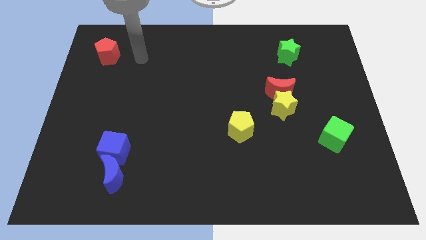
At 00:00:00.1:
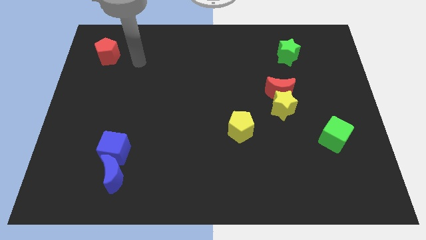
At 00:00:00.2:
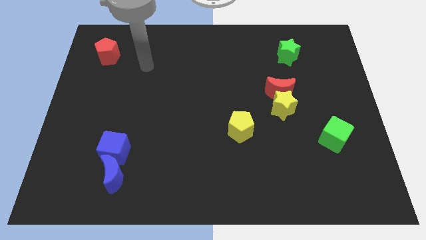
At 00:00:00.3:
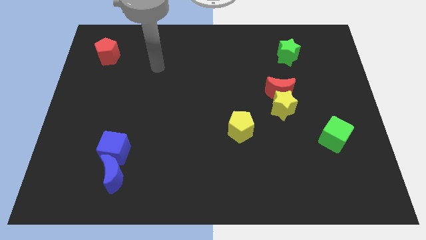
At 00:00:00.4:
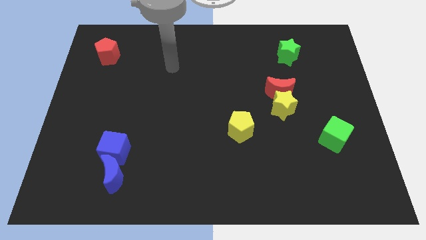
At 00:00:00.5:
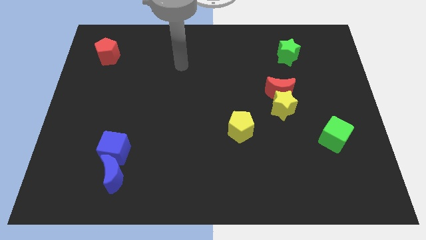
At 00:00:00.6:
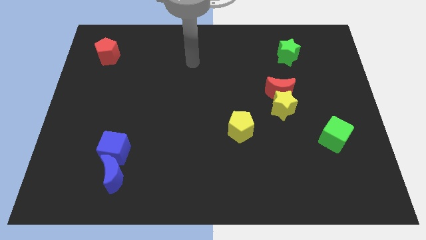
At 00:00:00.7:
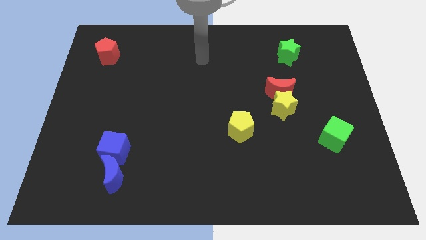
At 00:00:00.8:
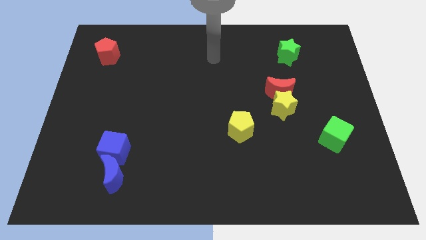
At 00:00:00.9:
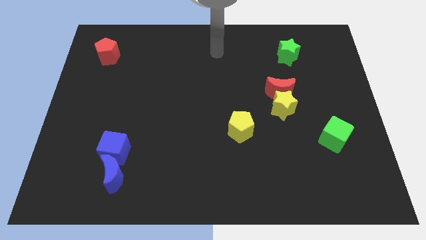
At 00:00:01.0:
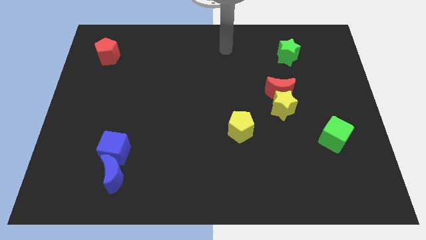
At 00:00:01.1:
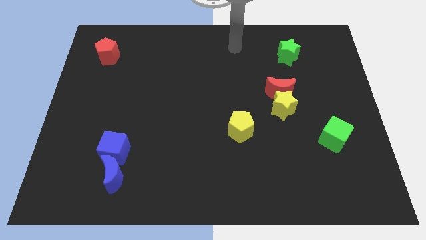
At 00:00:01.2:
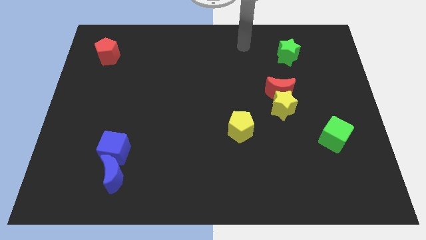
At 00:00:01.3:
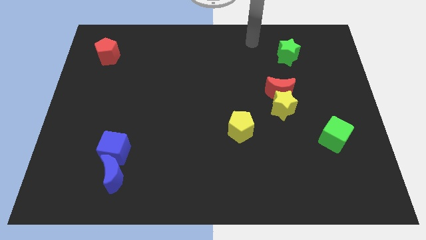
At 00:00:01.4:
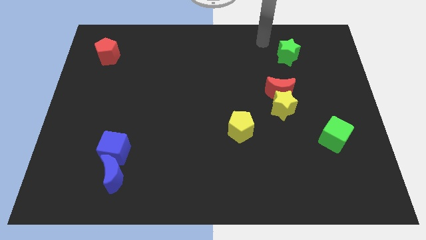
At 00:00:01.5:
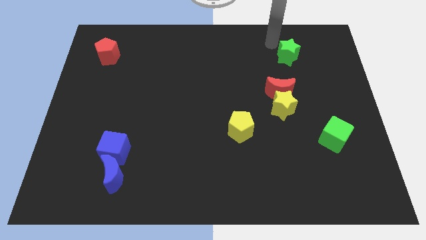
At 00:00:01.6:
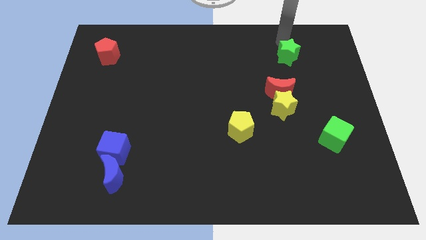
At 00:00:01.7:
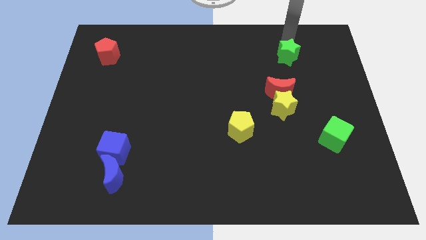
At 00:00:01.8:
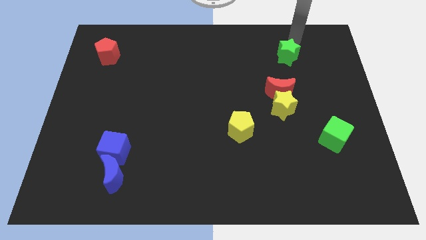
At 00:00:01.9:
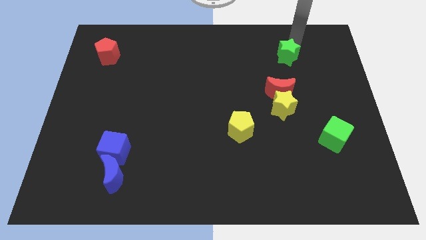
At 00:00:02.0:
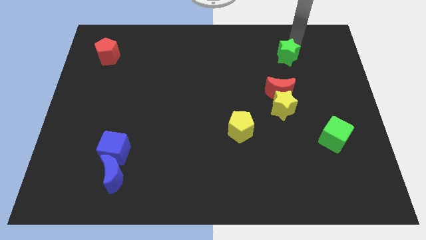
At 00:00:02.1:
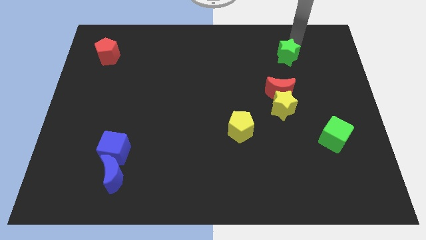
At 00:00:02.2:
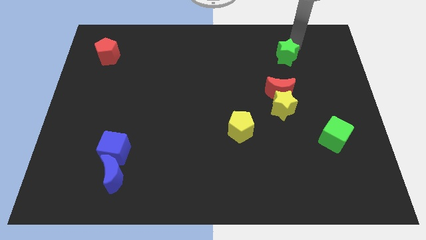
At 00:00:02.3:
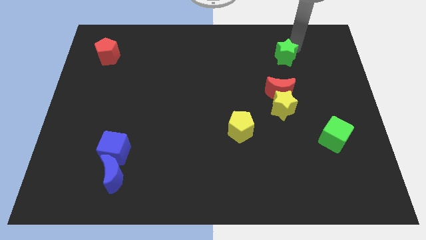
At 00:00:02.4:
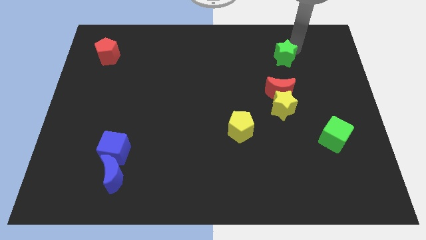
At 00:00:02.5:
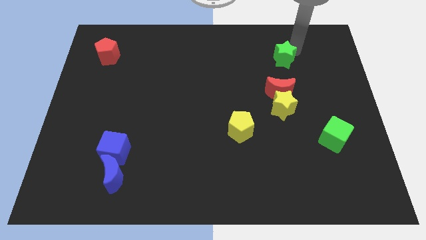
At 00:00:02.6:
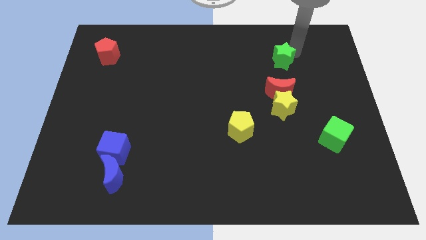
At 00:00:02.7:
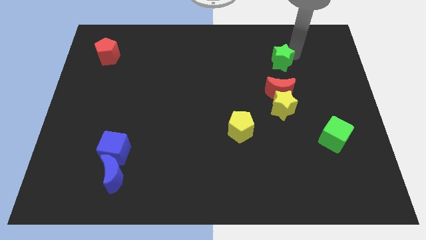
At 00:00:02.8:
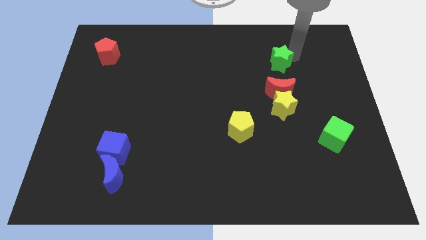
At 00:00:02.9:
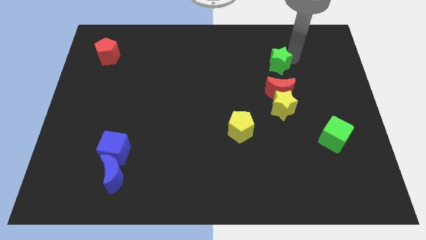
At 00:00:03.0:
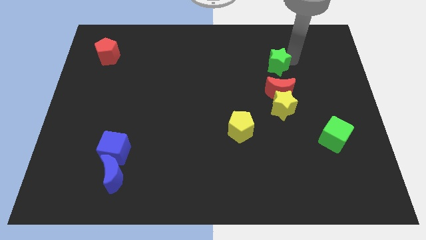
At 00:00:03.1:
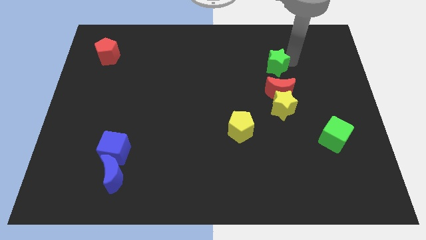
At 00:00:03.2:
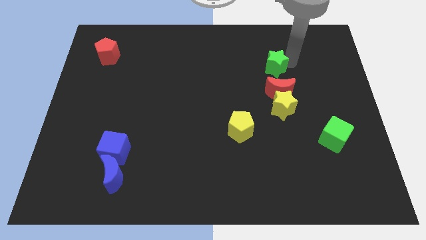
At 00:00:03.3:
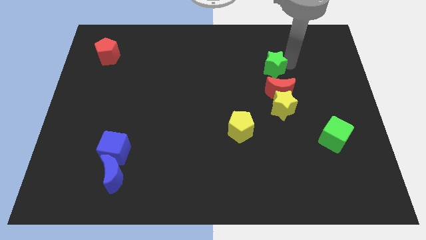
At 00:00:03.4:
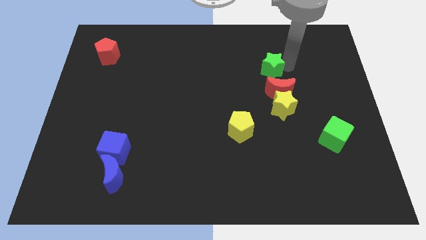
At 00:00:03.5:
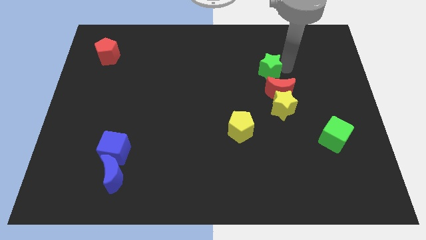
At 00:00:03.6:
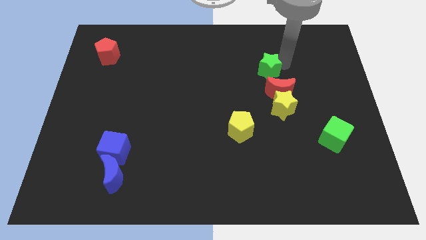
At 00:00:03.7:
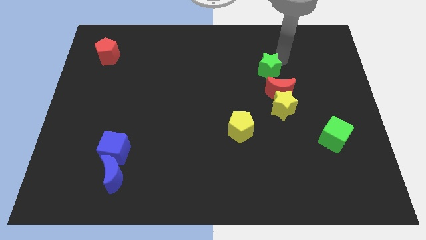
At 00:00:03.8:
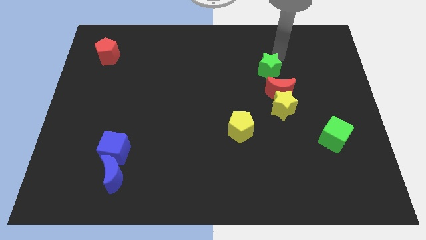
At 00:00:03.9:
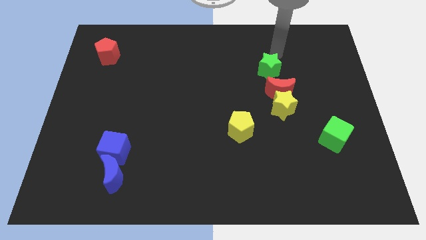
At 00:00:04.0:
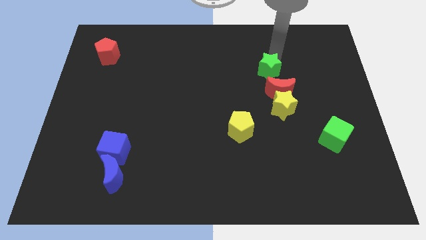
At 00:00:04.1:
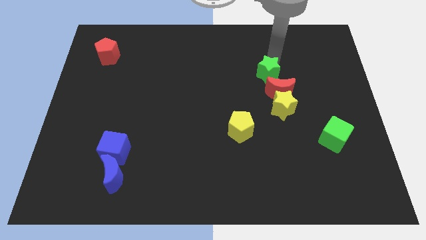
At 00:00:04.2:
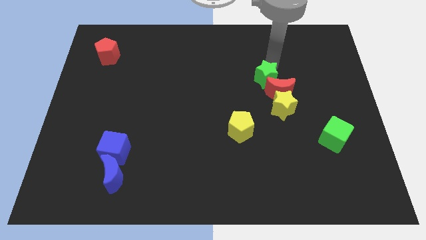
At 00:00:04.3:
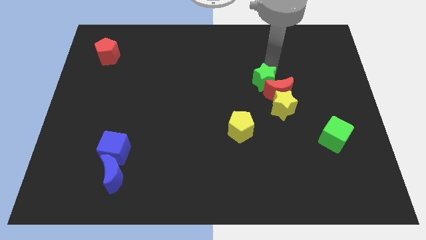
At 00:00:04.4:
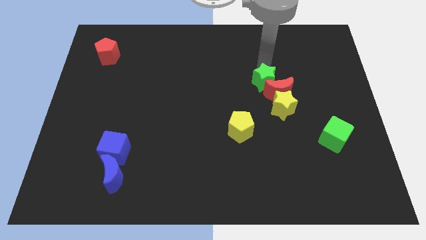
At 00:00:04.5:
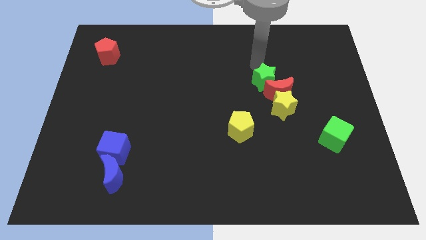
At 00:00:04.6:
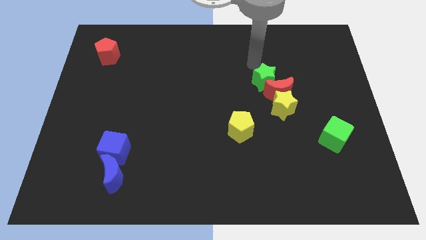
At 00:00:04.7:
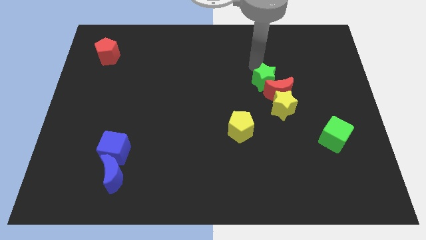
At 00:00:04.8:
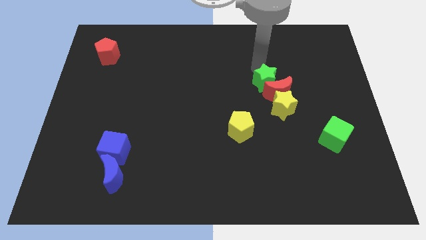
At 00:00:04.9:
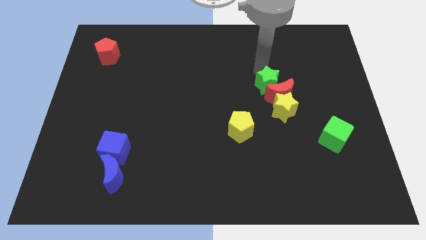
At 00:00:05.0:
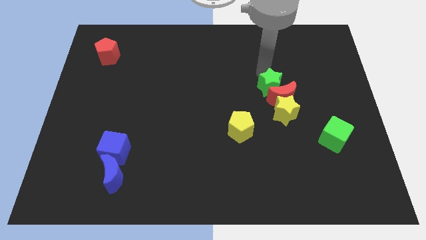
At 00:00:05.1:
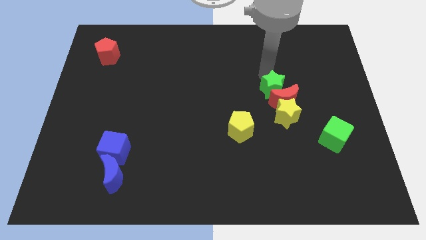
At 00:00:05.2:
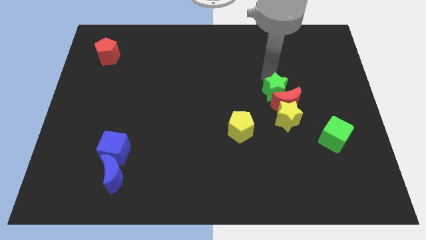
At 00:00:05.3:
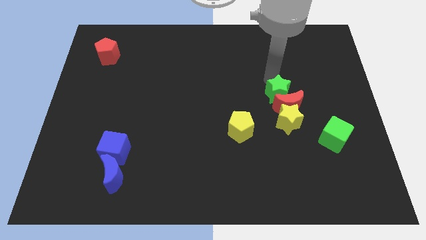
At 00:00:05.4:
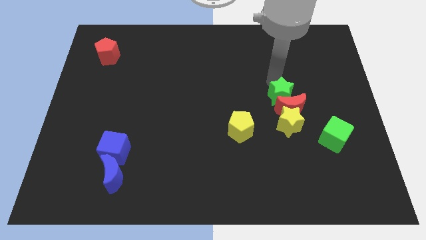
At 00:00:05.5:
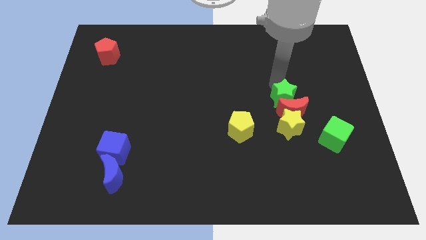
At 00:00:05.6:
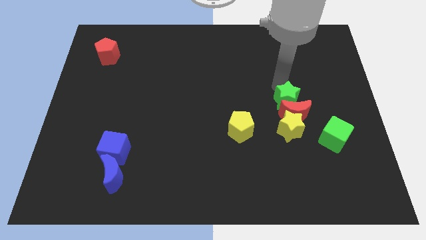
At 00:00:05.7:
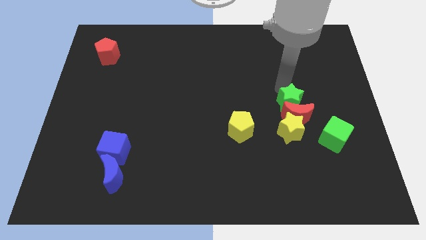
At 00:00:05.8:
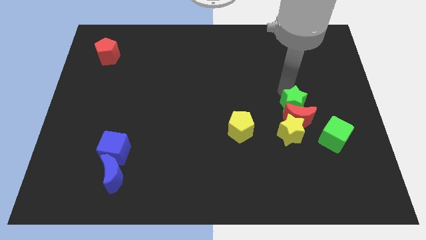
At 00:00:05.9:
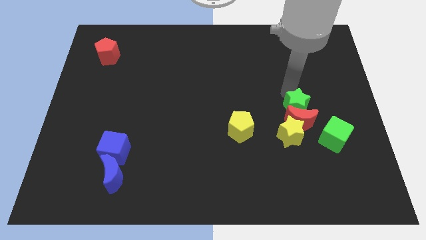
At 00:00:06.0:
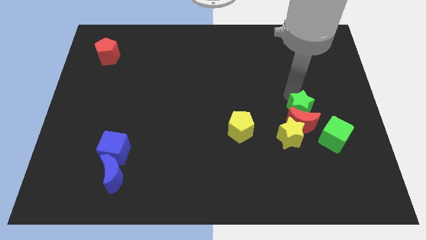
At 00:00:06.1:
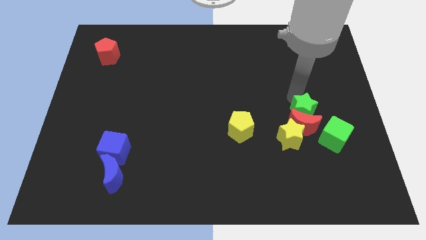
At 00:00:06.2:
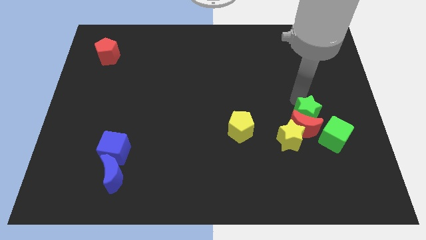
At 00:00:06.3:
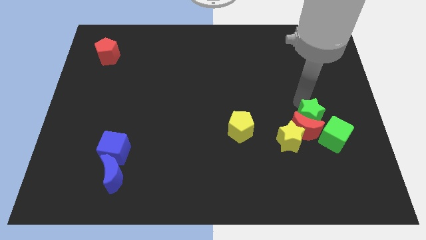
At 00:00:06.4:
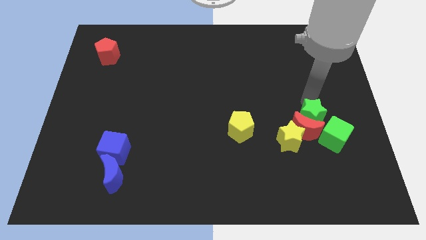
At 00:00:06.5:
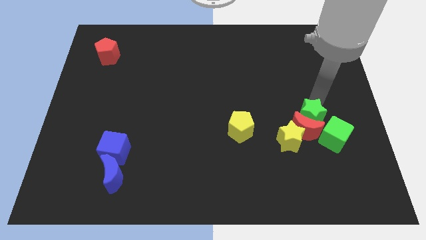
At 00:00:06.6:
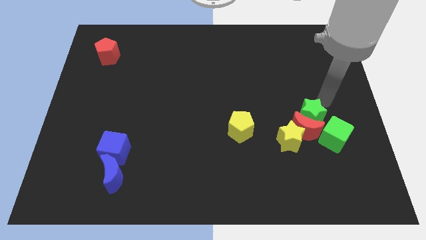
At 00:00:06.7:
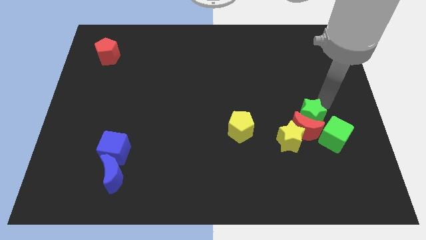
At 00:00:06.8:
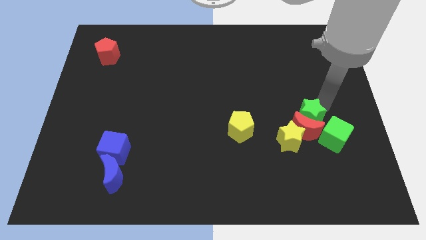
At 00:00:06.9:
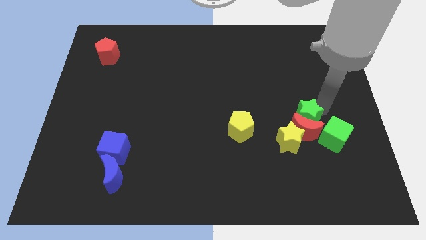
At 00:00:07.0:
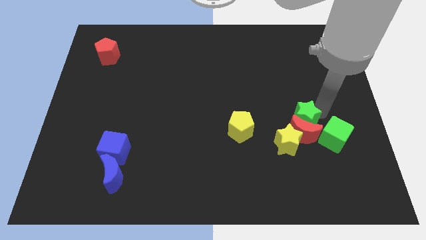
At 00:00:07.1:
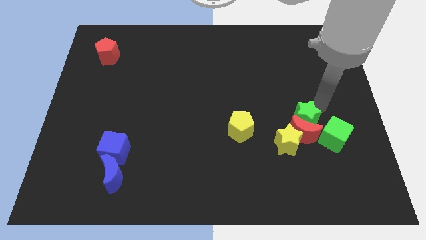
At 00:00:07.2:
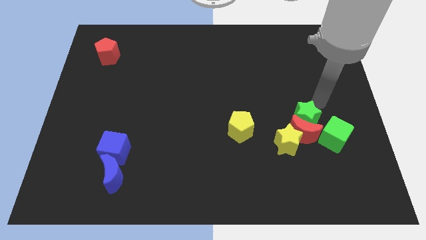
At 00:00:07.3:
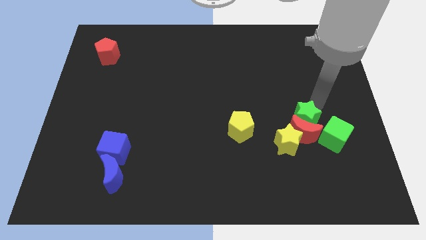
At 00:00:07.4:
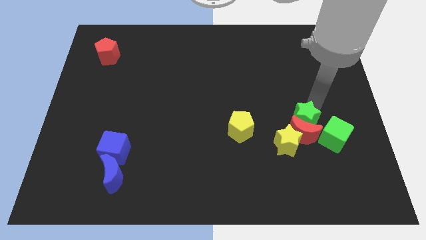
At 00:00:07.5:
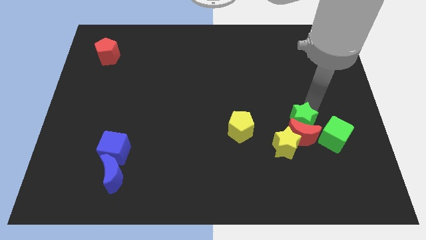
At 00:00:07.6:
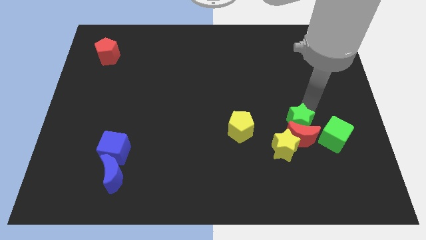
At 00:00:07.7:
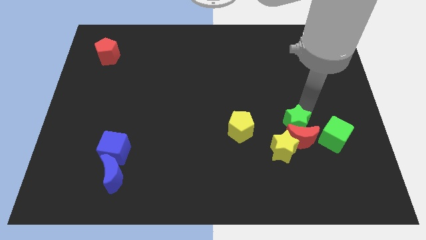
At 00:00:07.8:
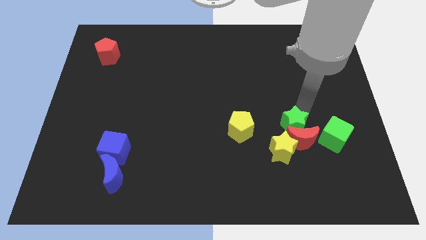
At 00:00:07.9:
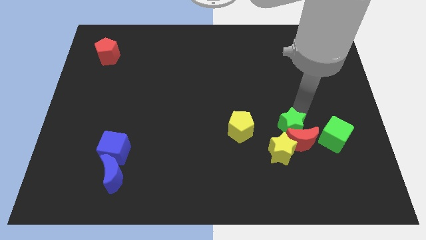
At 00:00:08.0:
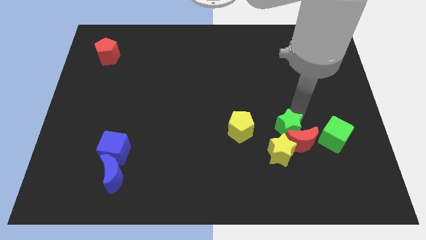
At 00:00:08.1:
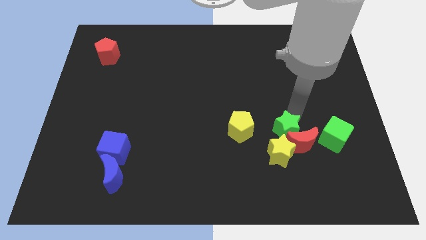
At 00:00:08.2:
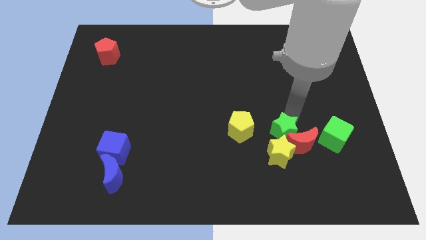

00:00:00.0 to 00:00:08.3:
slide the green star next to the yellow star

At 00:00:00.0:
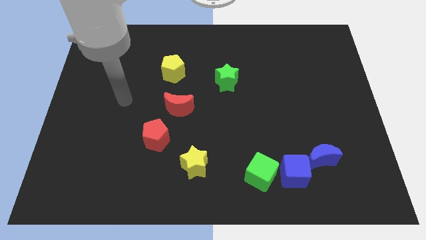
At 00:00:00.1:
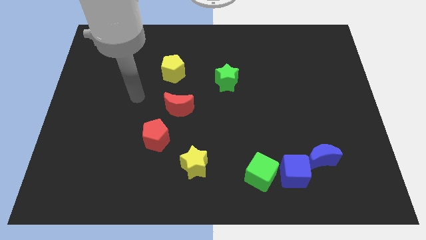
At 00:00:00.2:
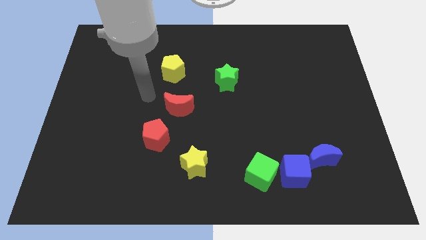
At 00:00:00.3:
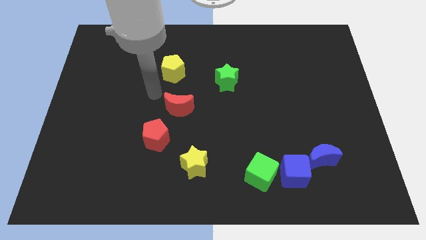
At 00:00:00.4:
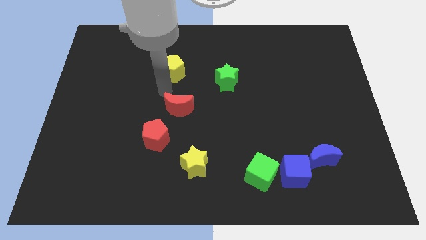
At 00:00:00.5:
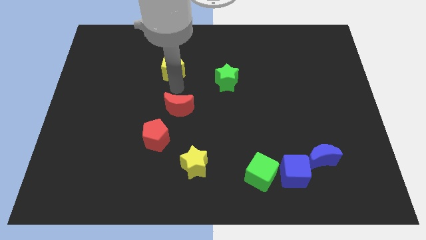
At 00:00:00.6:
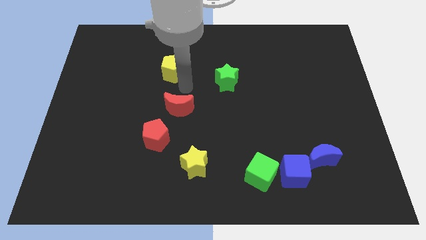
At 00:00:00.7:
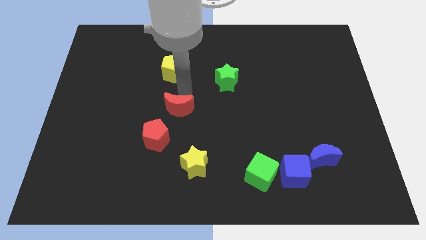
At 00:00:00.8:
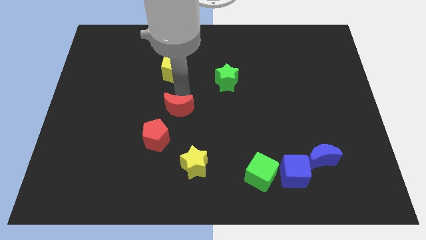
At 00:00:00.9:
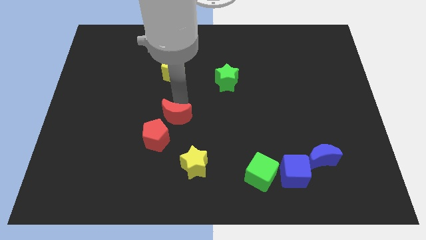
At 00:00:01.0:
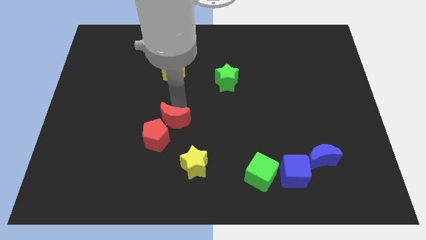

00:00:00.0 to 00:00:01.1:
slide the red moon to the red pentagon
